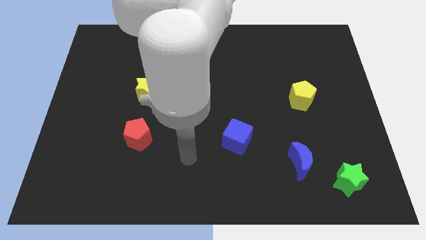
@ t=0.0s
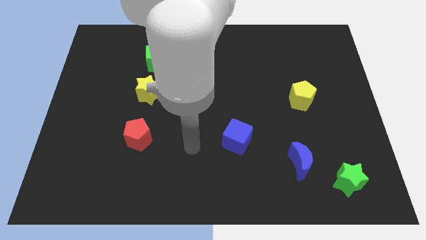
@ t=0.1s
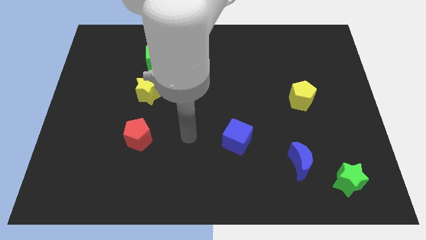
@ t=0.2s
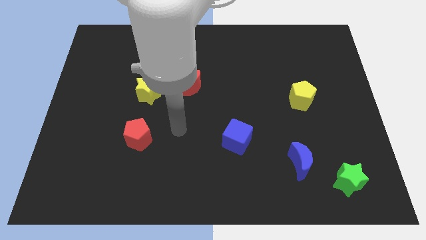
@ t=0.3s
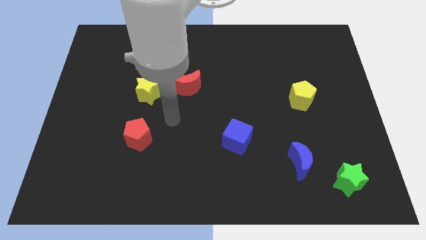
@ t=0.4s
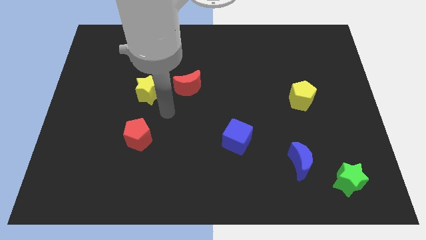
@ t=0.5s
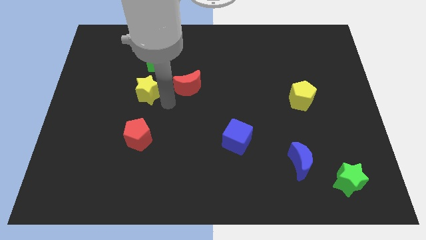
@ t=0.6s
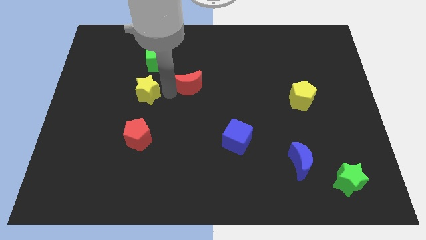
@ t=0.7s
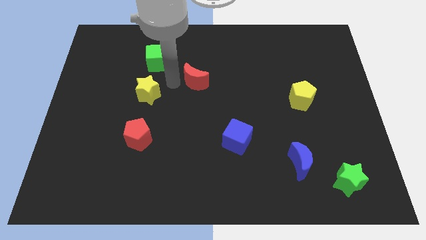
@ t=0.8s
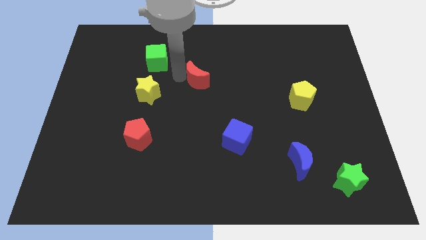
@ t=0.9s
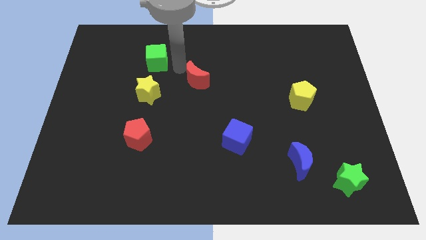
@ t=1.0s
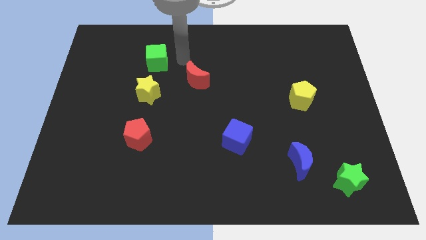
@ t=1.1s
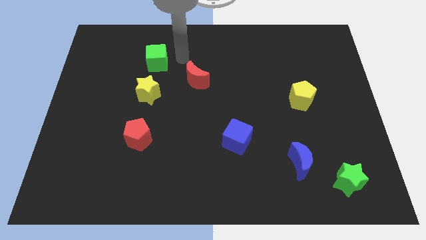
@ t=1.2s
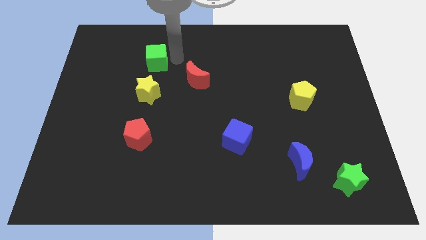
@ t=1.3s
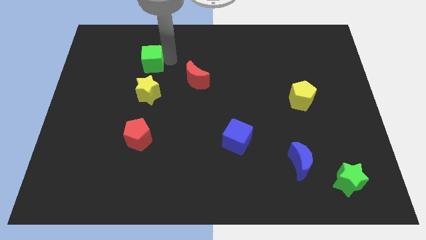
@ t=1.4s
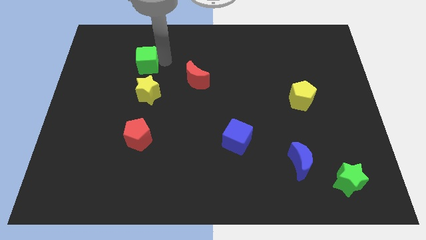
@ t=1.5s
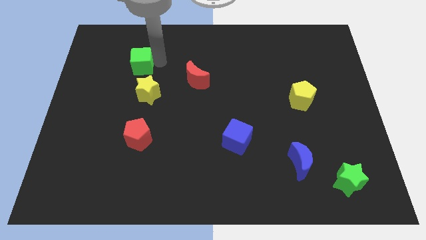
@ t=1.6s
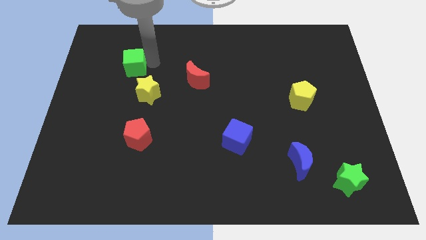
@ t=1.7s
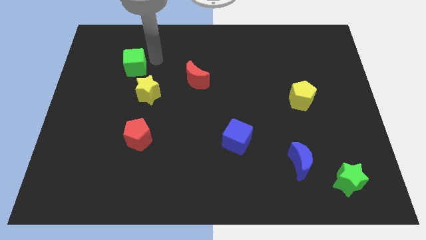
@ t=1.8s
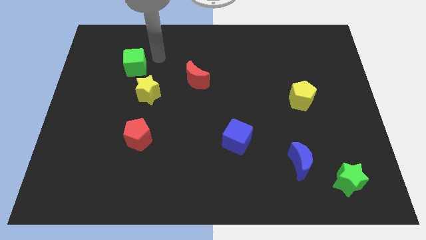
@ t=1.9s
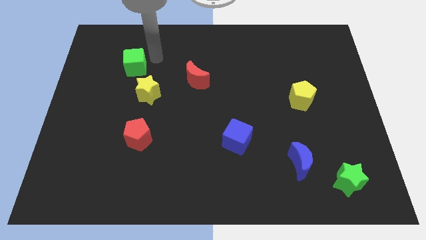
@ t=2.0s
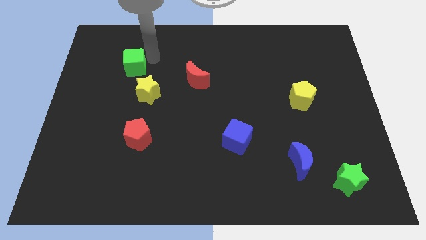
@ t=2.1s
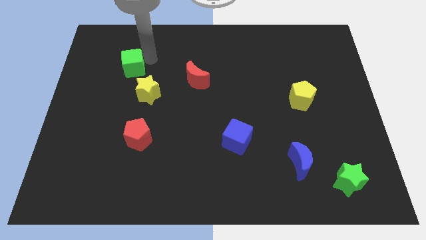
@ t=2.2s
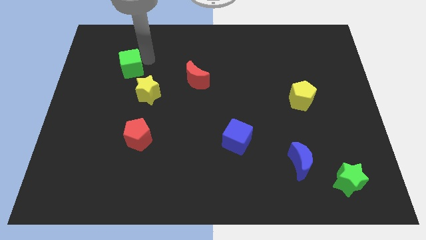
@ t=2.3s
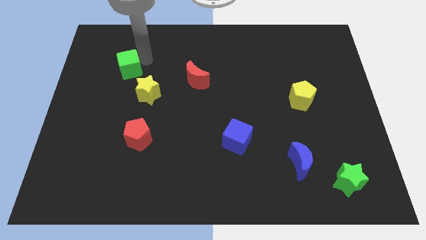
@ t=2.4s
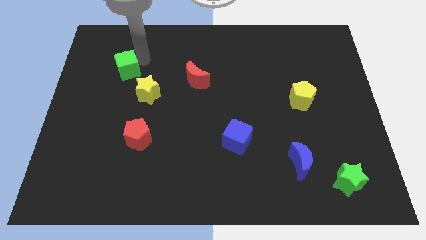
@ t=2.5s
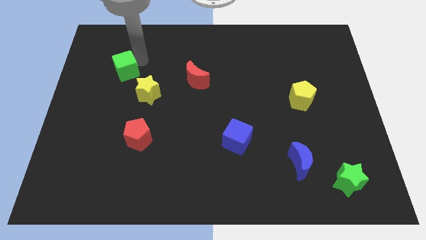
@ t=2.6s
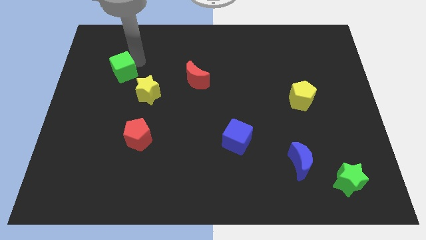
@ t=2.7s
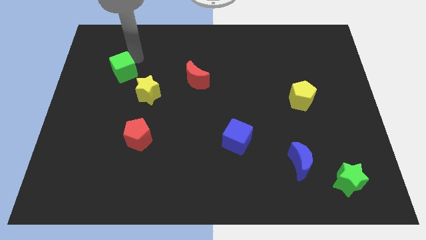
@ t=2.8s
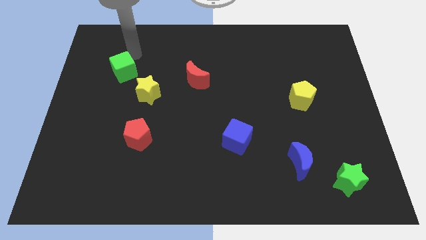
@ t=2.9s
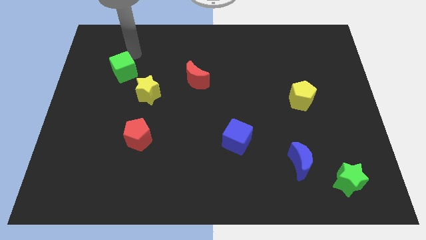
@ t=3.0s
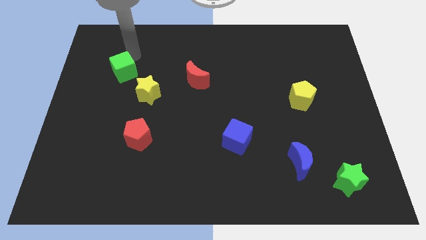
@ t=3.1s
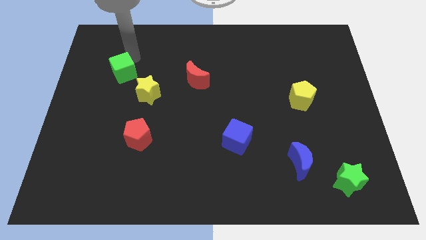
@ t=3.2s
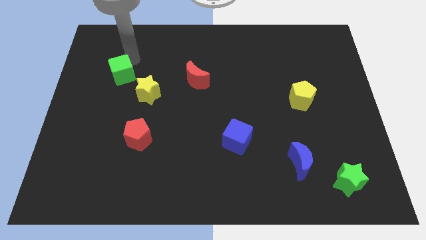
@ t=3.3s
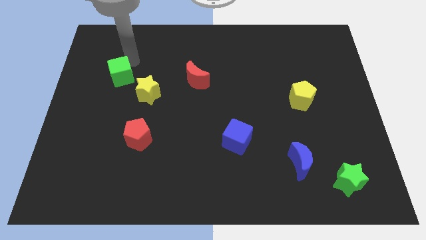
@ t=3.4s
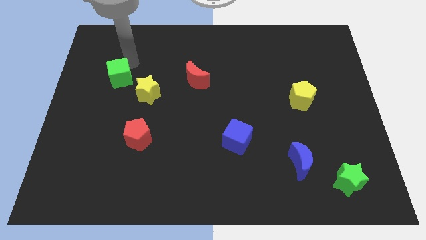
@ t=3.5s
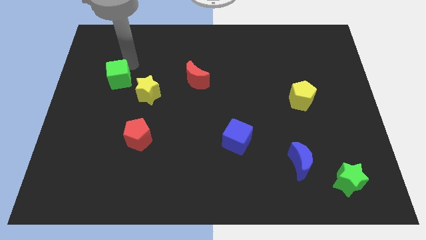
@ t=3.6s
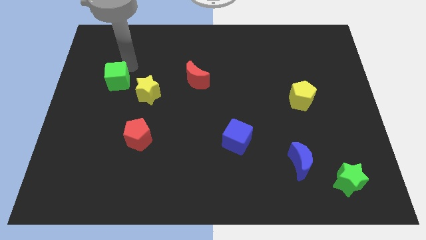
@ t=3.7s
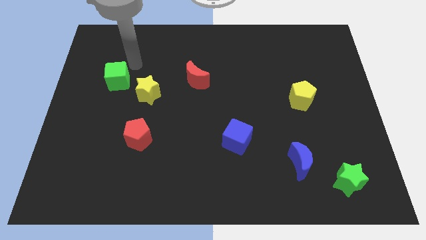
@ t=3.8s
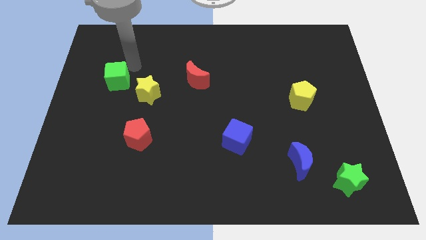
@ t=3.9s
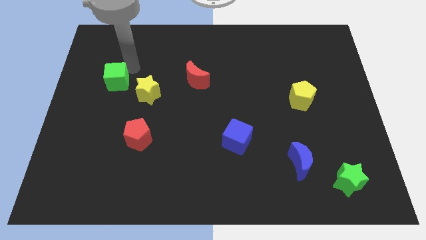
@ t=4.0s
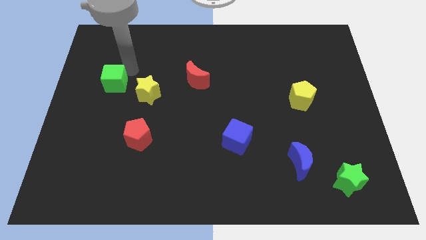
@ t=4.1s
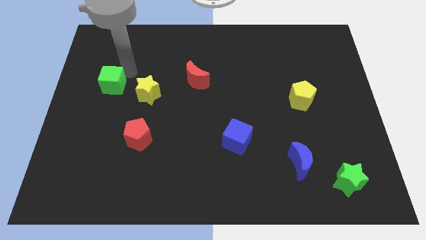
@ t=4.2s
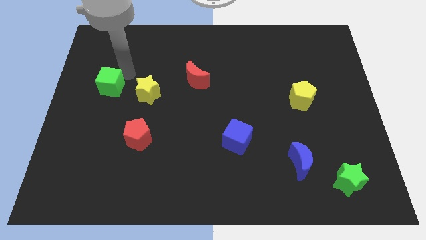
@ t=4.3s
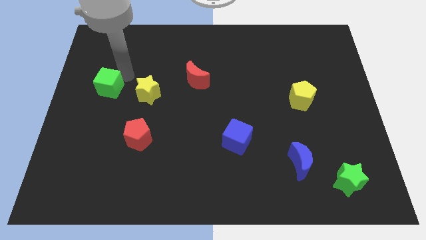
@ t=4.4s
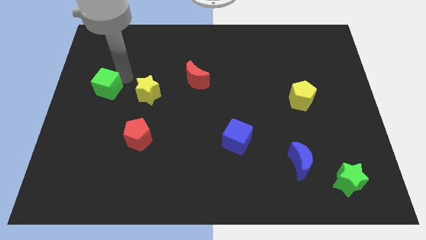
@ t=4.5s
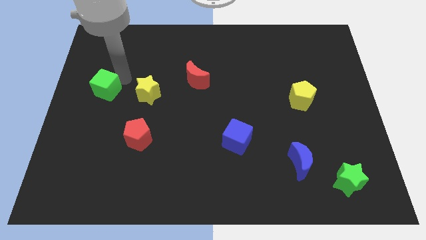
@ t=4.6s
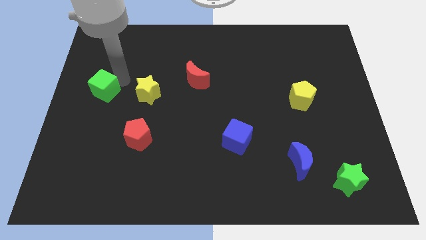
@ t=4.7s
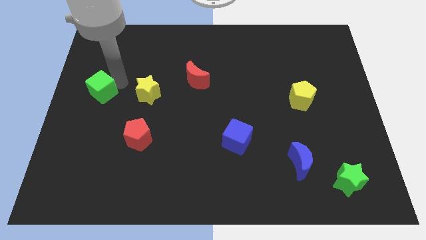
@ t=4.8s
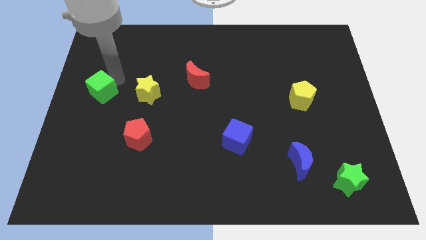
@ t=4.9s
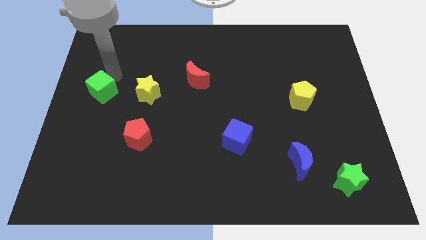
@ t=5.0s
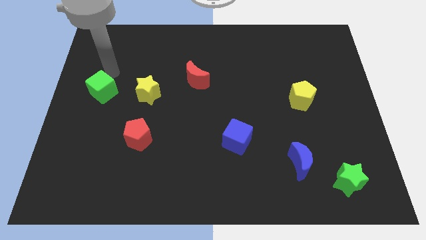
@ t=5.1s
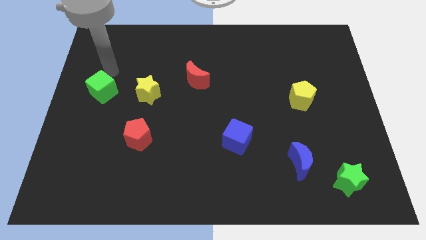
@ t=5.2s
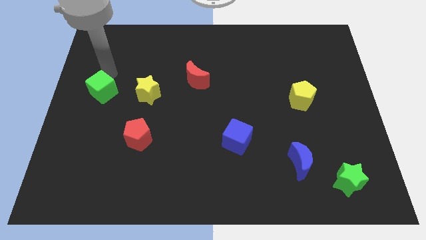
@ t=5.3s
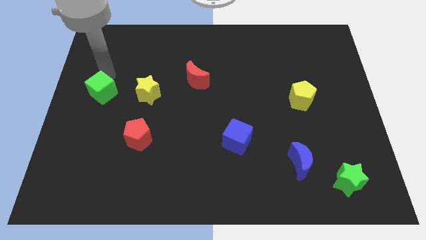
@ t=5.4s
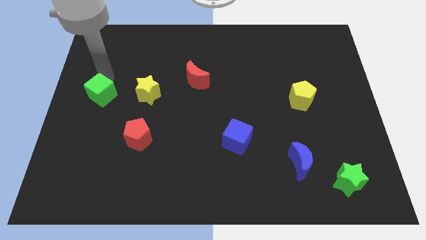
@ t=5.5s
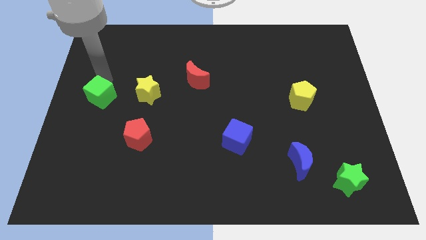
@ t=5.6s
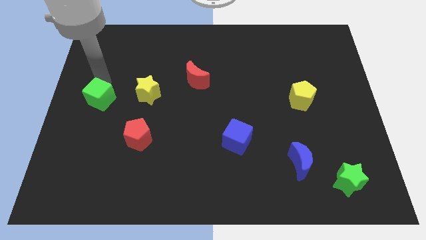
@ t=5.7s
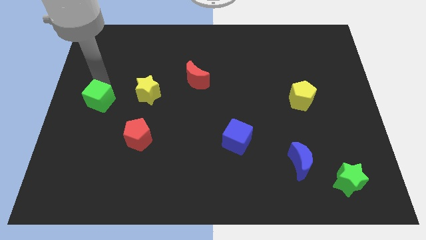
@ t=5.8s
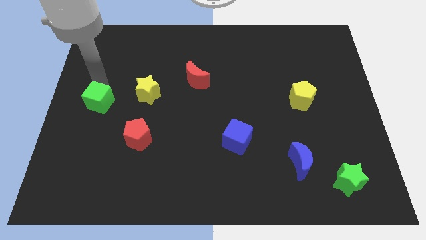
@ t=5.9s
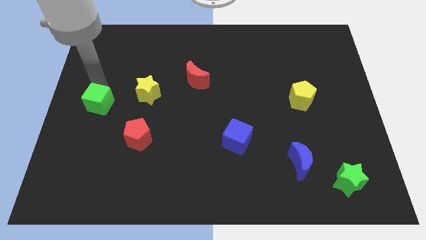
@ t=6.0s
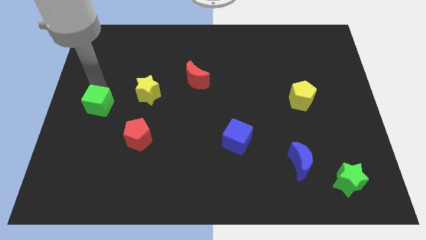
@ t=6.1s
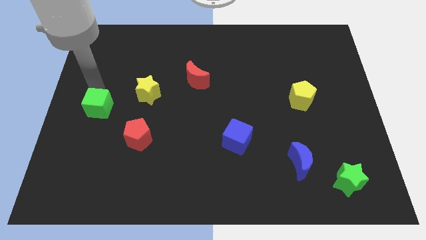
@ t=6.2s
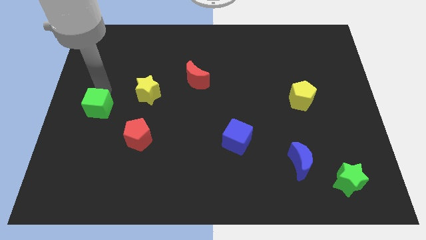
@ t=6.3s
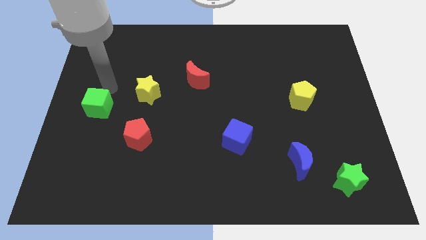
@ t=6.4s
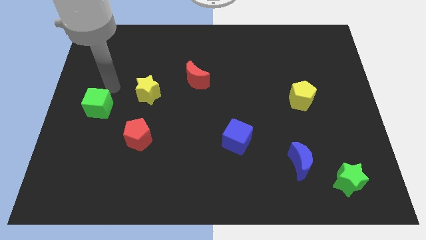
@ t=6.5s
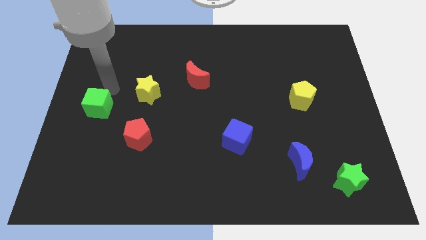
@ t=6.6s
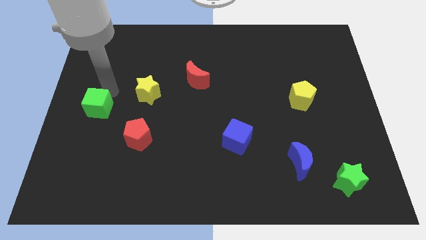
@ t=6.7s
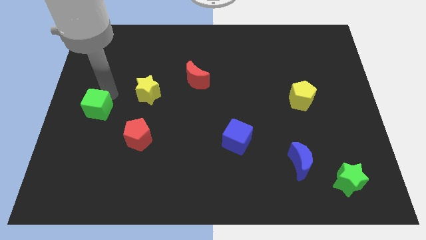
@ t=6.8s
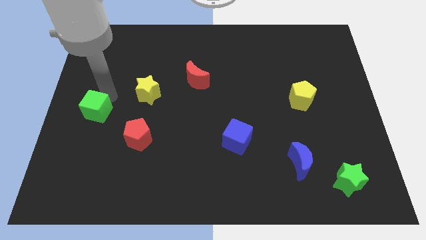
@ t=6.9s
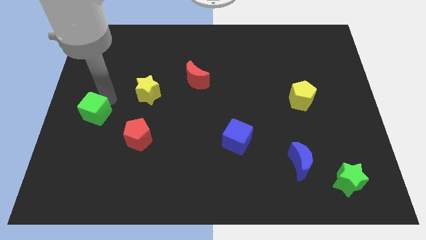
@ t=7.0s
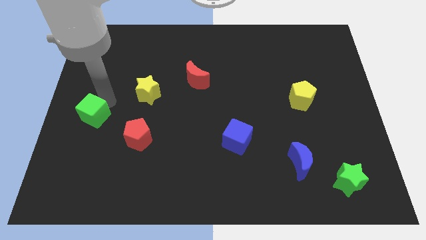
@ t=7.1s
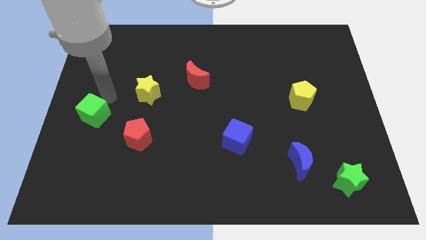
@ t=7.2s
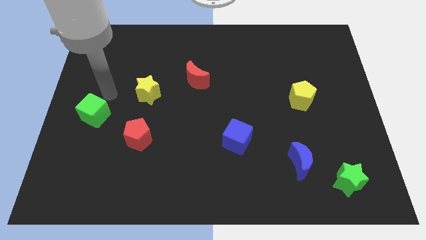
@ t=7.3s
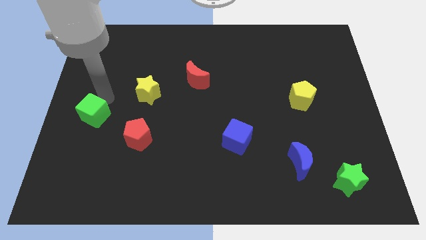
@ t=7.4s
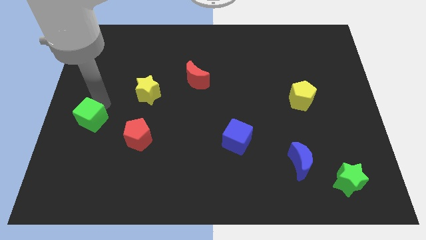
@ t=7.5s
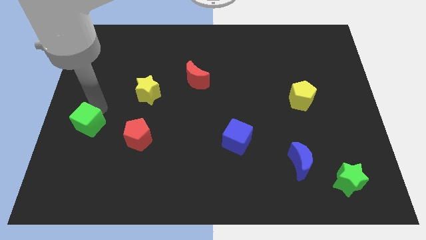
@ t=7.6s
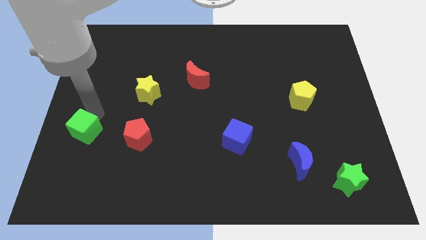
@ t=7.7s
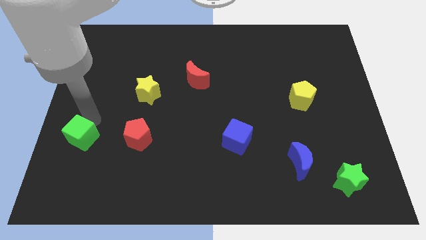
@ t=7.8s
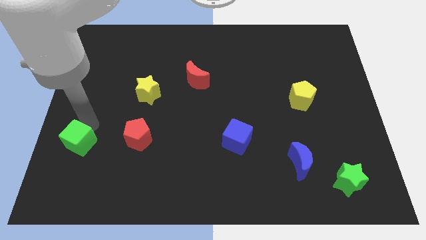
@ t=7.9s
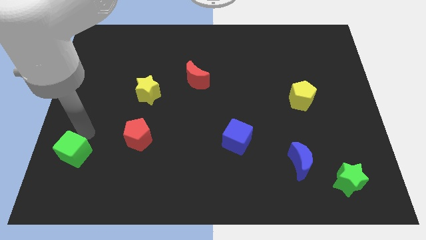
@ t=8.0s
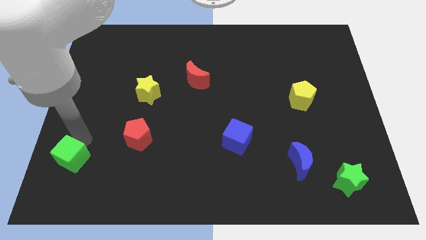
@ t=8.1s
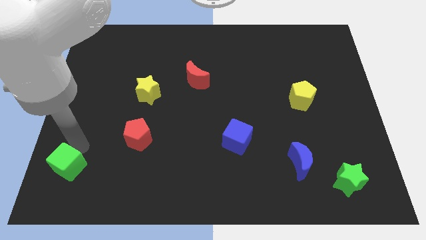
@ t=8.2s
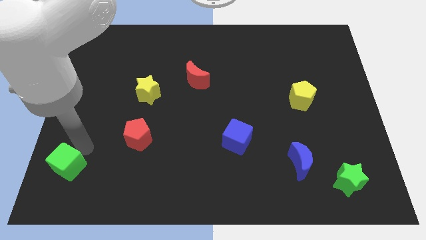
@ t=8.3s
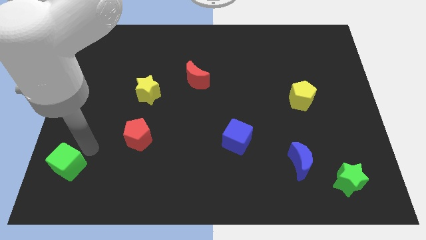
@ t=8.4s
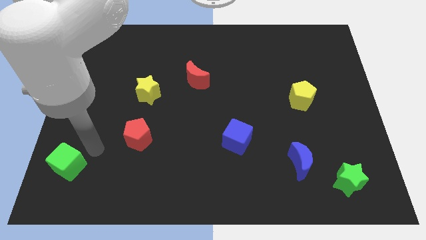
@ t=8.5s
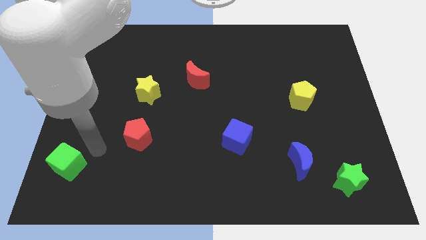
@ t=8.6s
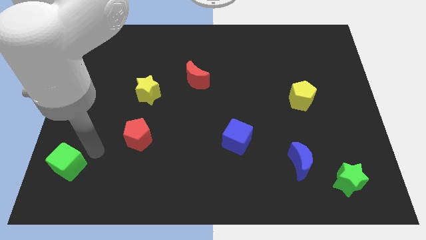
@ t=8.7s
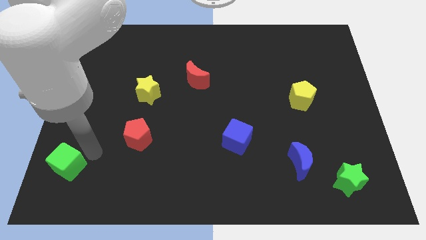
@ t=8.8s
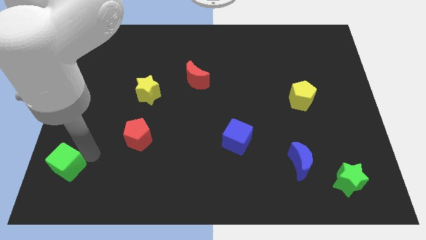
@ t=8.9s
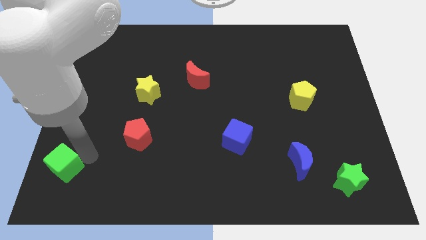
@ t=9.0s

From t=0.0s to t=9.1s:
push the green cube to the bottom left corner
